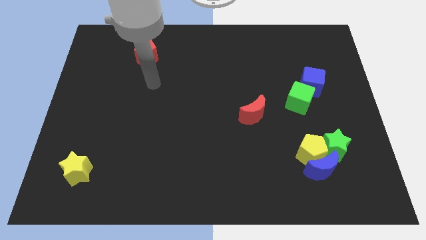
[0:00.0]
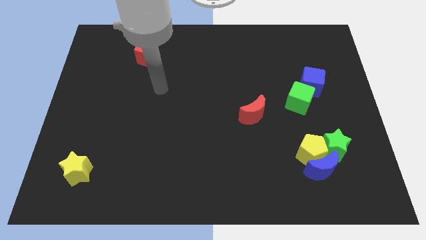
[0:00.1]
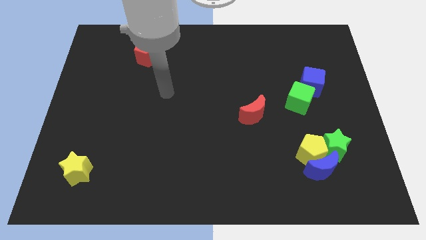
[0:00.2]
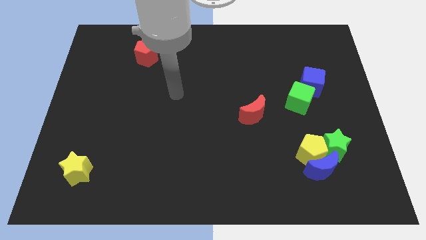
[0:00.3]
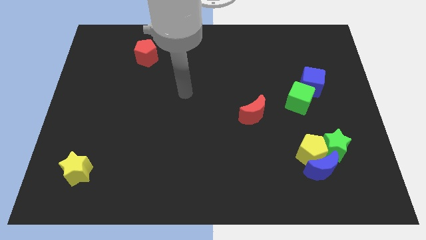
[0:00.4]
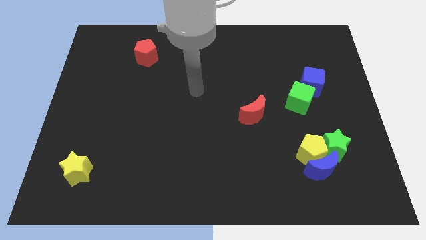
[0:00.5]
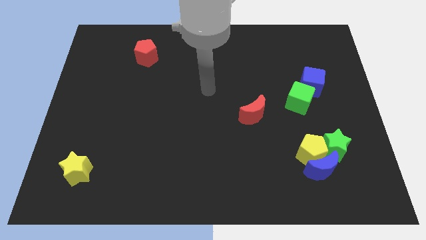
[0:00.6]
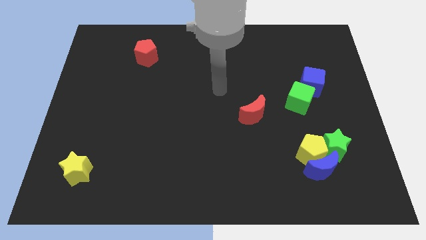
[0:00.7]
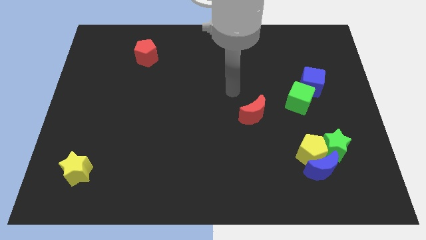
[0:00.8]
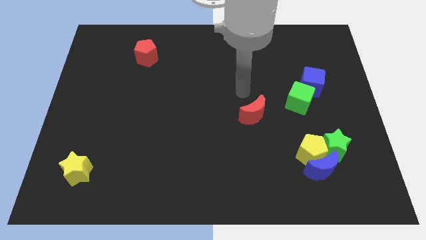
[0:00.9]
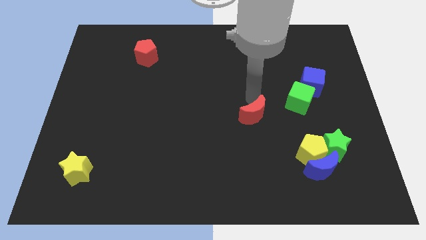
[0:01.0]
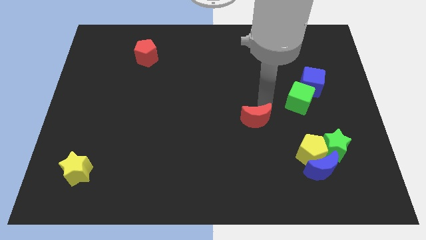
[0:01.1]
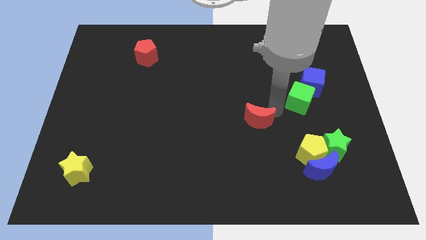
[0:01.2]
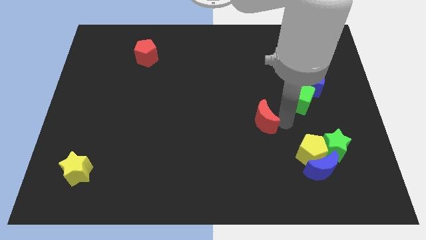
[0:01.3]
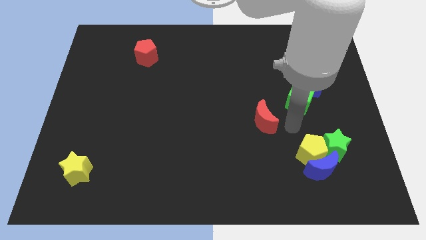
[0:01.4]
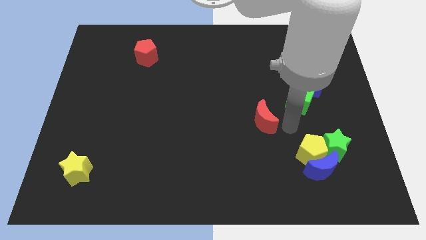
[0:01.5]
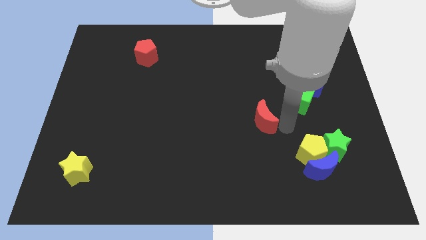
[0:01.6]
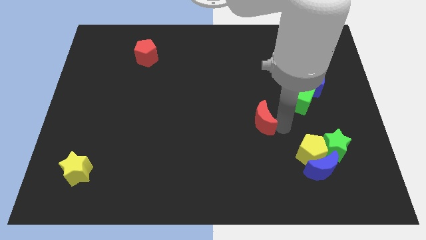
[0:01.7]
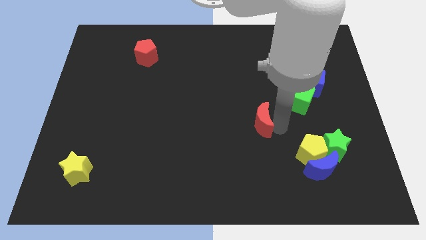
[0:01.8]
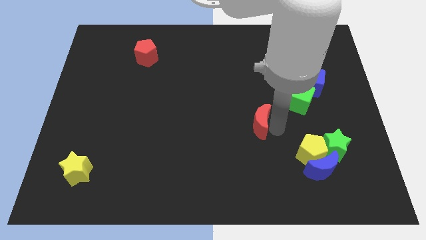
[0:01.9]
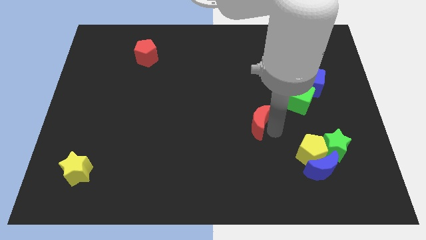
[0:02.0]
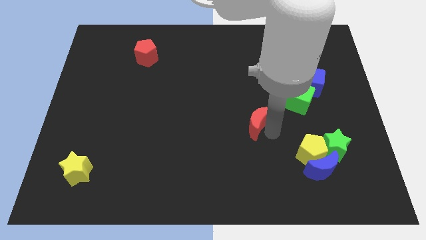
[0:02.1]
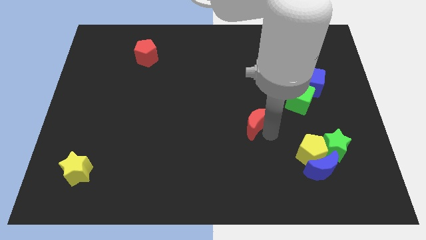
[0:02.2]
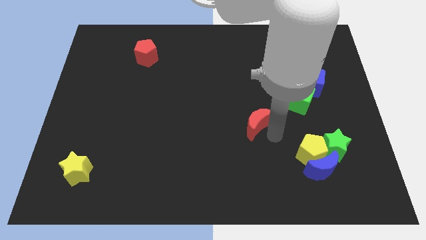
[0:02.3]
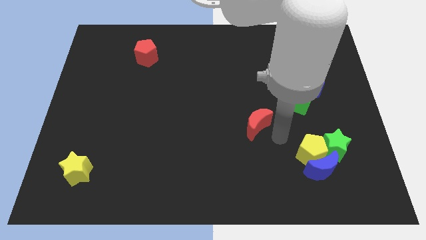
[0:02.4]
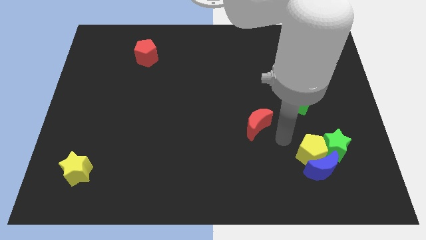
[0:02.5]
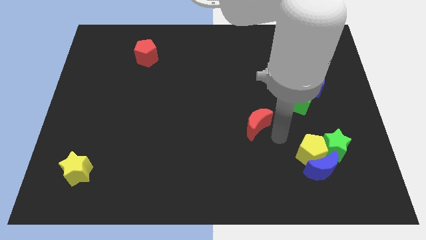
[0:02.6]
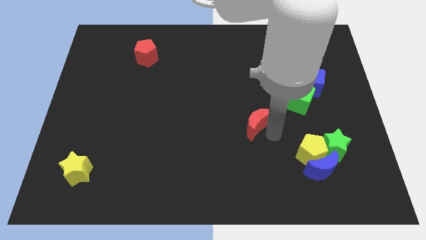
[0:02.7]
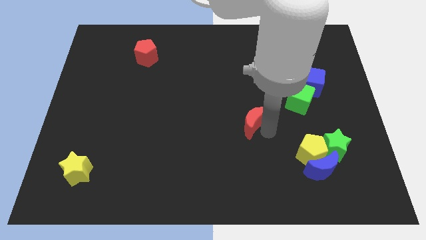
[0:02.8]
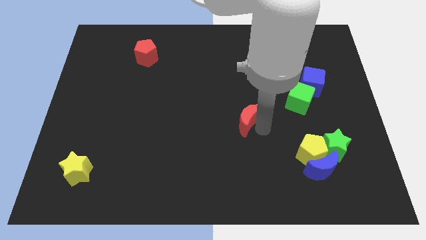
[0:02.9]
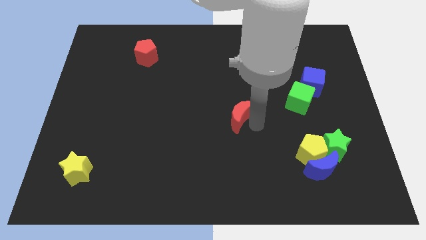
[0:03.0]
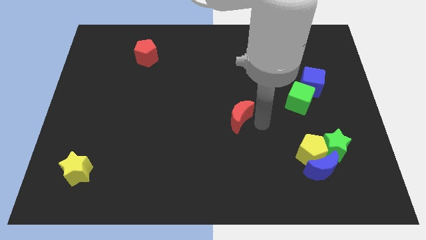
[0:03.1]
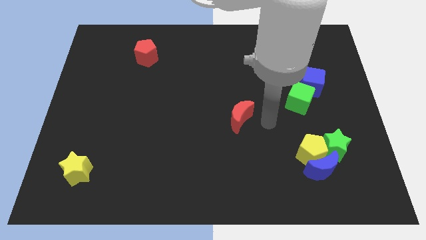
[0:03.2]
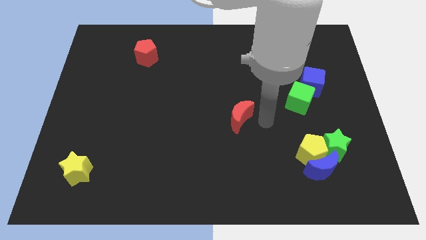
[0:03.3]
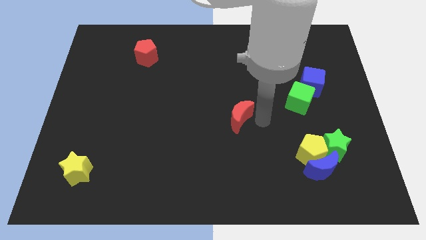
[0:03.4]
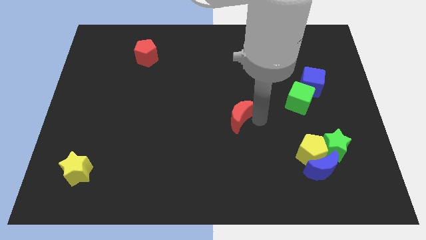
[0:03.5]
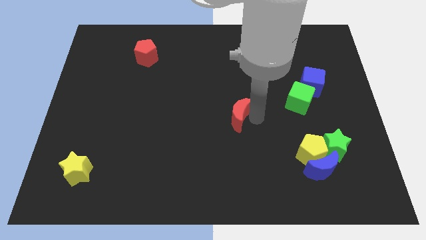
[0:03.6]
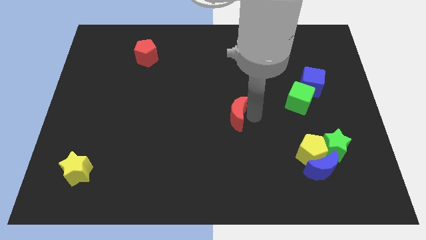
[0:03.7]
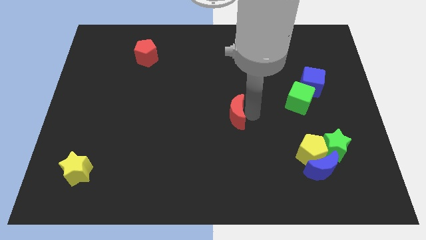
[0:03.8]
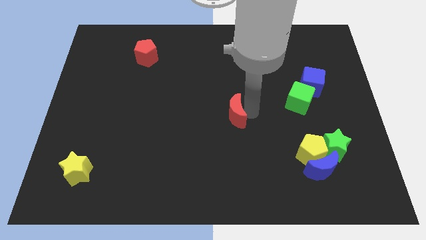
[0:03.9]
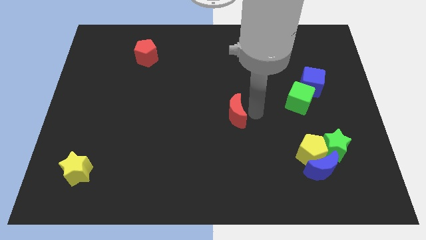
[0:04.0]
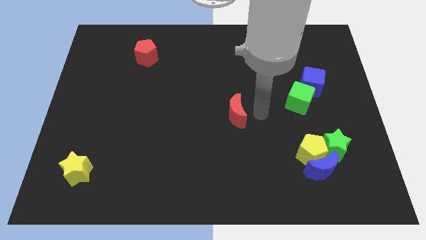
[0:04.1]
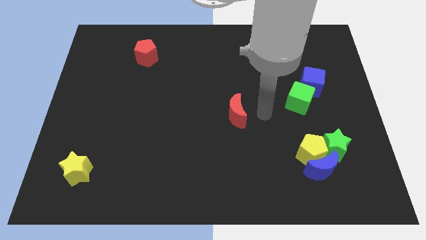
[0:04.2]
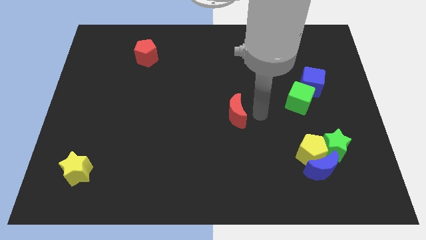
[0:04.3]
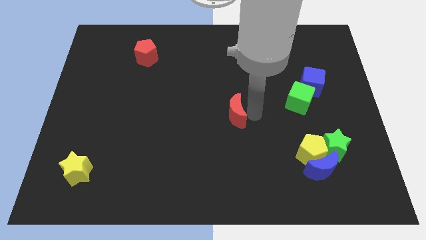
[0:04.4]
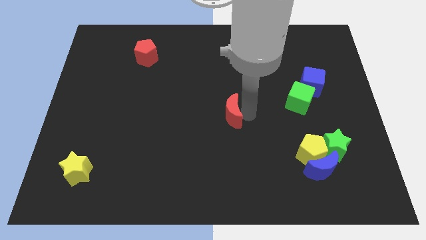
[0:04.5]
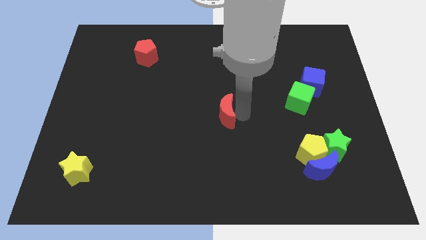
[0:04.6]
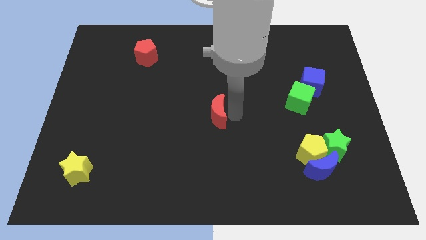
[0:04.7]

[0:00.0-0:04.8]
slide the red moon somewhat left

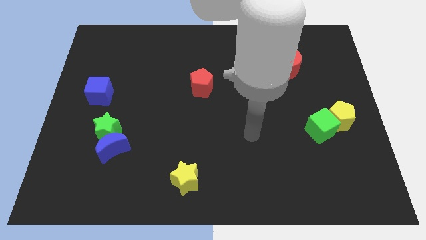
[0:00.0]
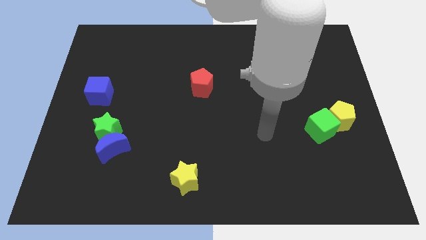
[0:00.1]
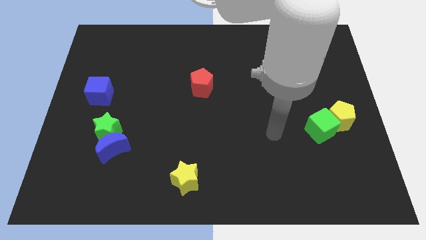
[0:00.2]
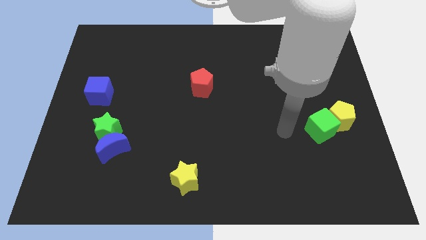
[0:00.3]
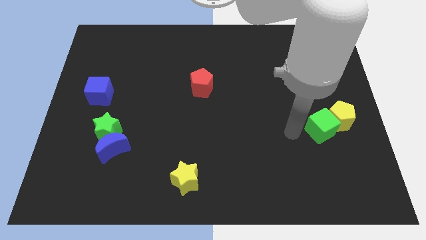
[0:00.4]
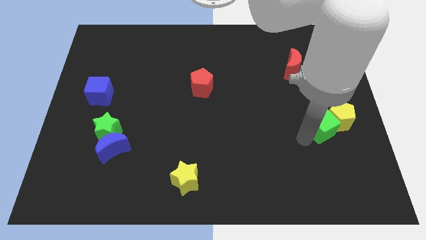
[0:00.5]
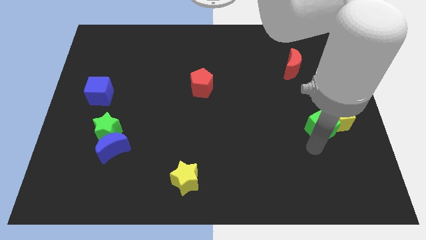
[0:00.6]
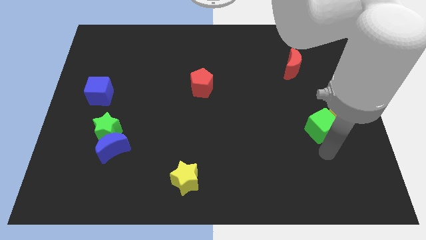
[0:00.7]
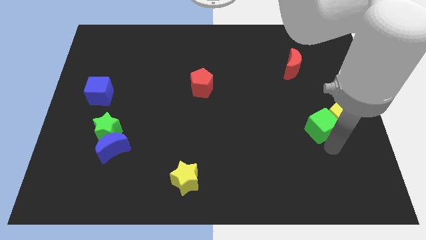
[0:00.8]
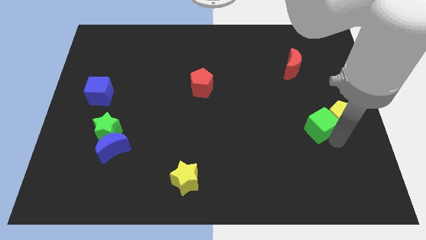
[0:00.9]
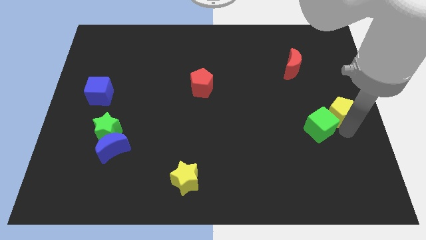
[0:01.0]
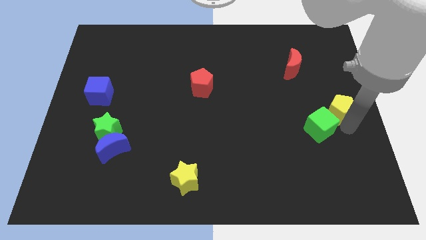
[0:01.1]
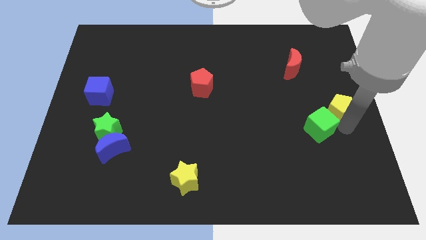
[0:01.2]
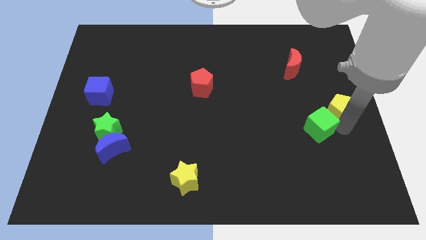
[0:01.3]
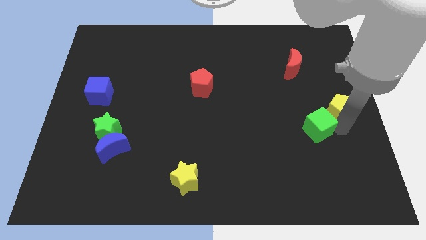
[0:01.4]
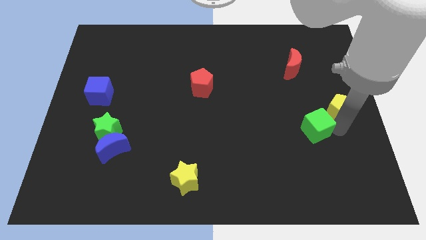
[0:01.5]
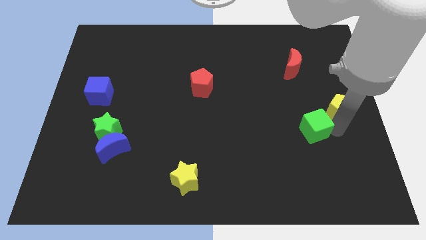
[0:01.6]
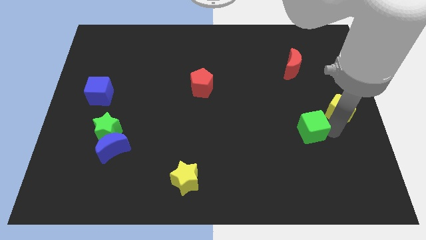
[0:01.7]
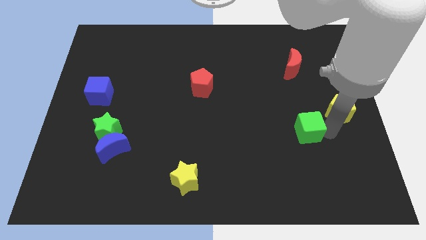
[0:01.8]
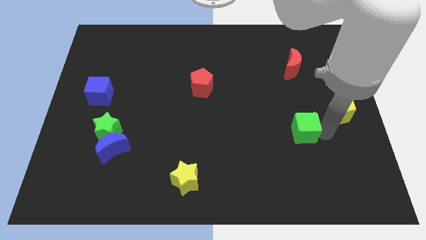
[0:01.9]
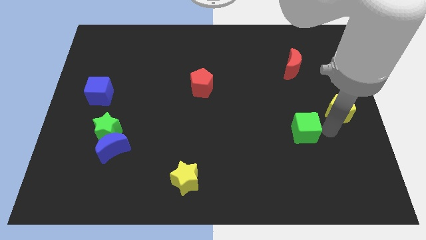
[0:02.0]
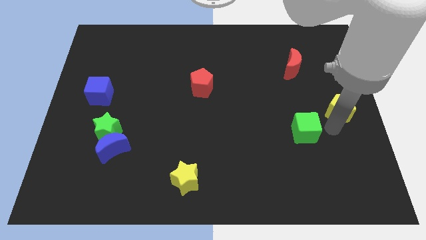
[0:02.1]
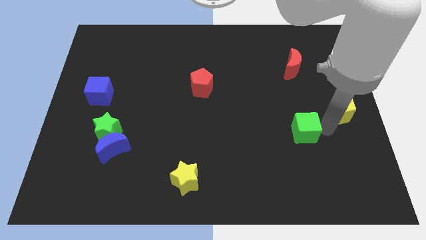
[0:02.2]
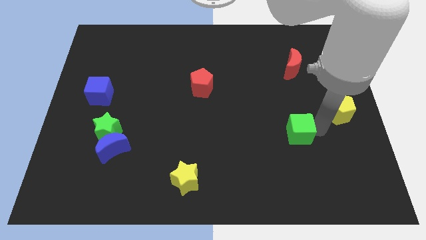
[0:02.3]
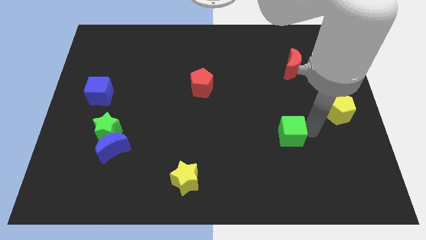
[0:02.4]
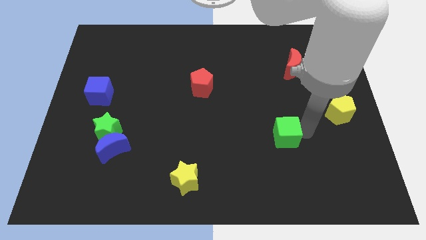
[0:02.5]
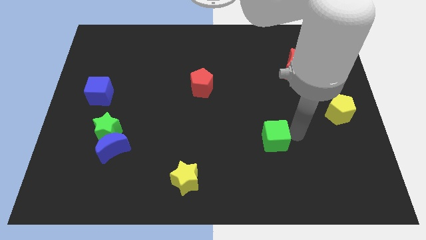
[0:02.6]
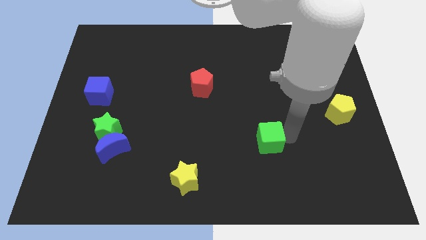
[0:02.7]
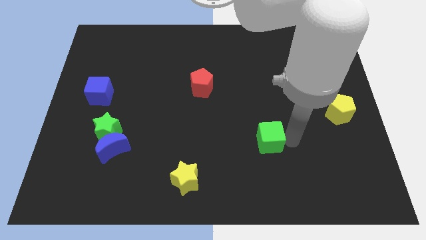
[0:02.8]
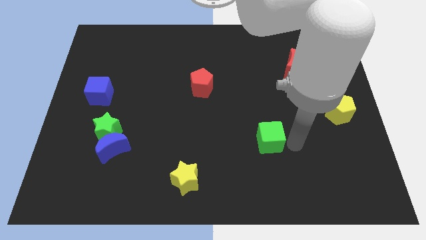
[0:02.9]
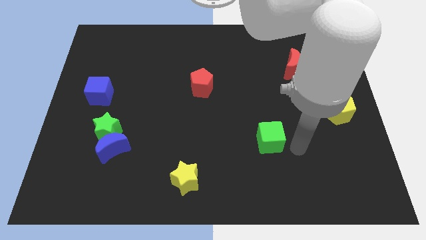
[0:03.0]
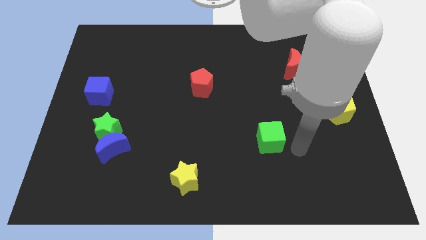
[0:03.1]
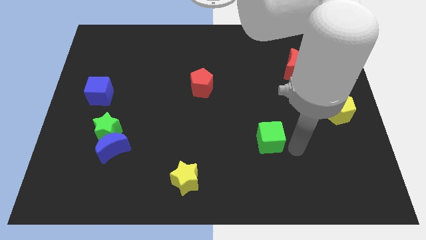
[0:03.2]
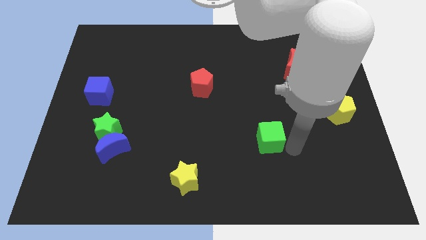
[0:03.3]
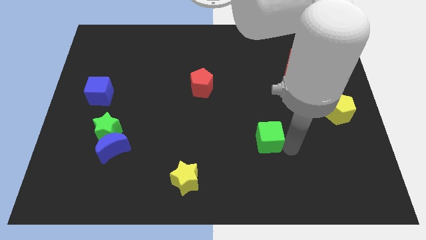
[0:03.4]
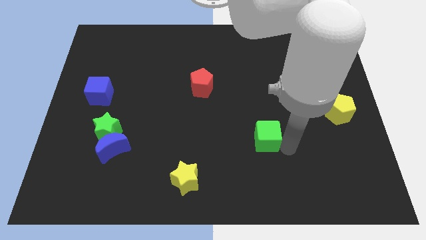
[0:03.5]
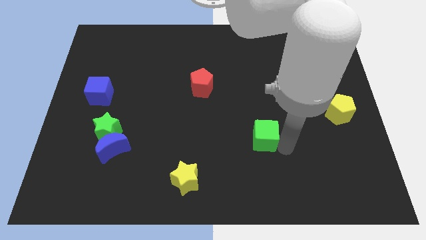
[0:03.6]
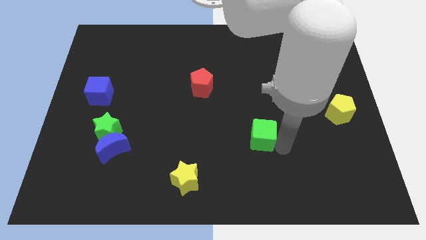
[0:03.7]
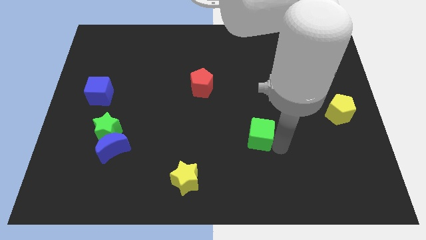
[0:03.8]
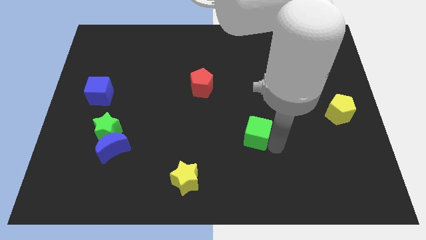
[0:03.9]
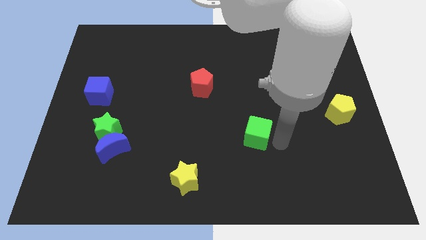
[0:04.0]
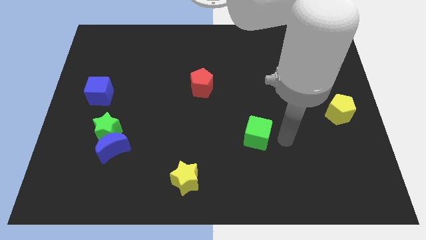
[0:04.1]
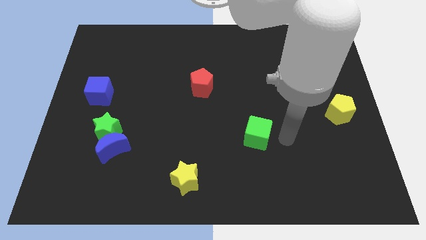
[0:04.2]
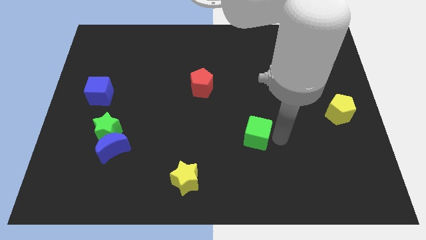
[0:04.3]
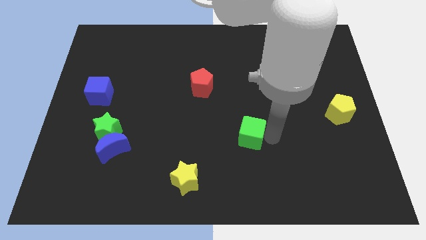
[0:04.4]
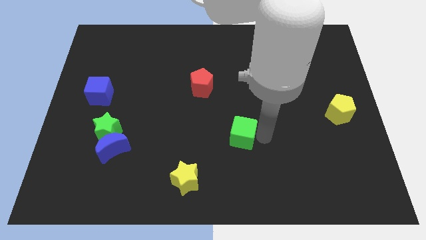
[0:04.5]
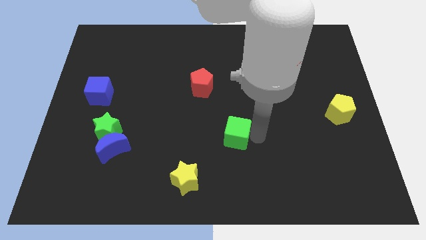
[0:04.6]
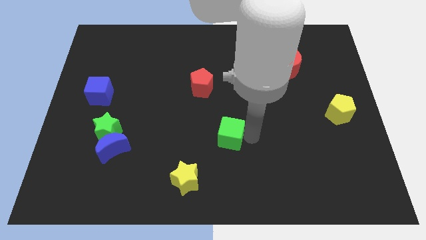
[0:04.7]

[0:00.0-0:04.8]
push the green cube left
